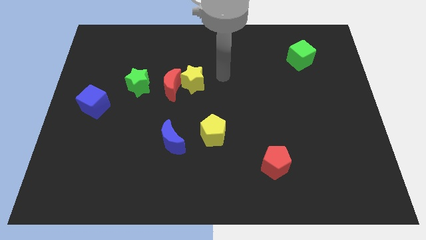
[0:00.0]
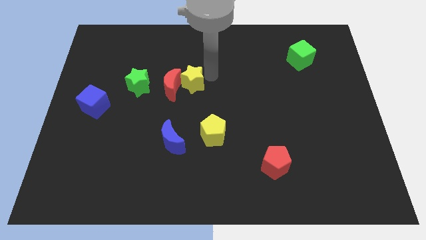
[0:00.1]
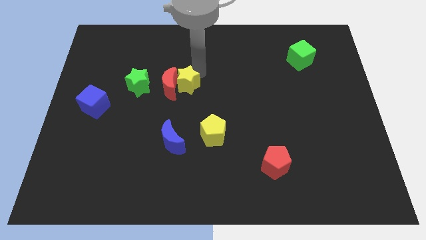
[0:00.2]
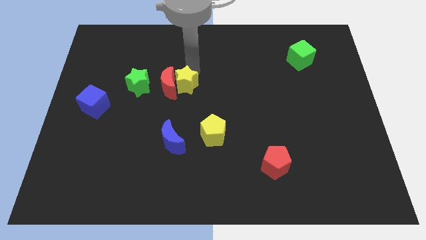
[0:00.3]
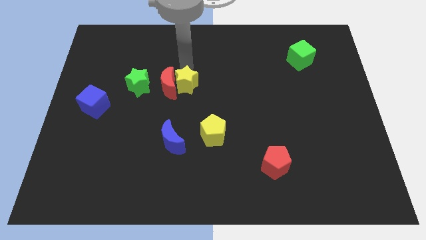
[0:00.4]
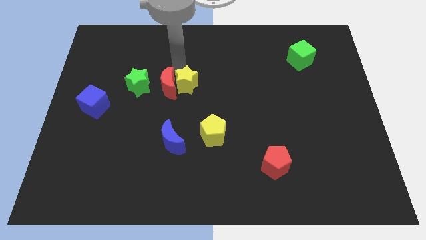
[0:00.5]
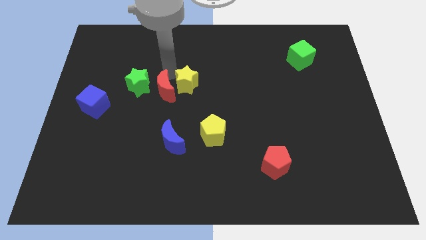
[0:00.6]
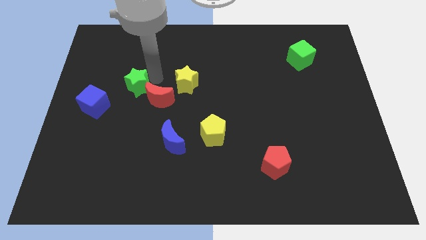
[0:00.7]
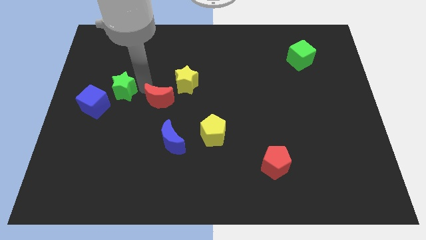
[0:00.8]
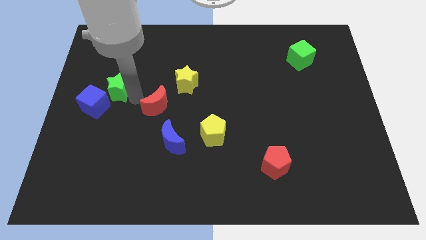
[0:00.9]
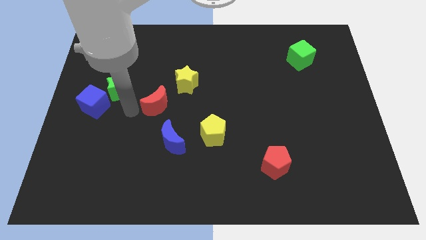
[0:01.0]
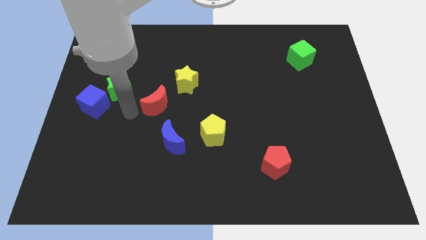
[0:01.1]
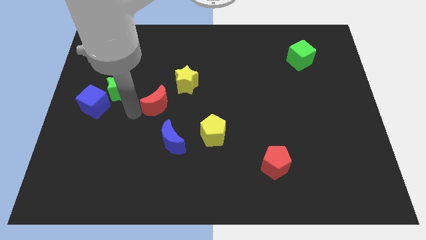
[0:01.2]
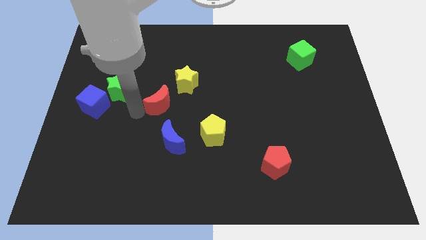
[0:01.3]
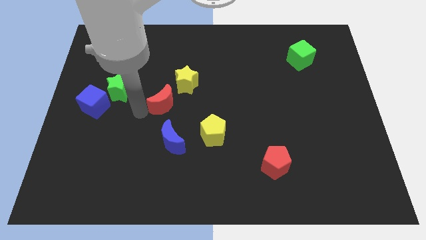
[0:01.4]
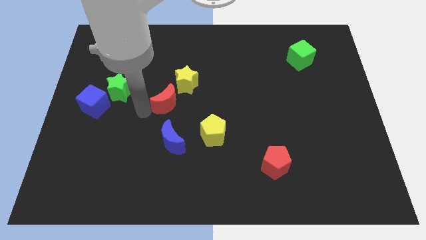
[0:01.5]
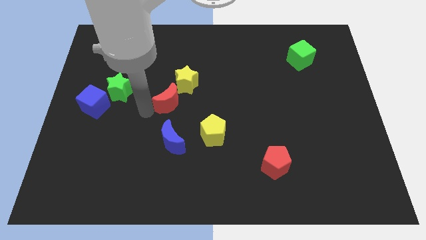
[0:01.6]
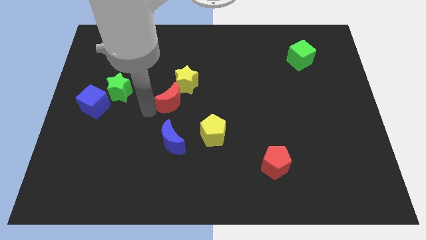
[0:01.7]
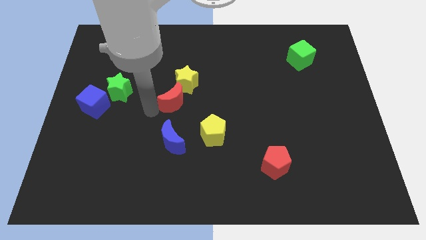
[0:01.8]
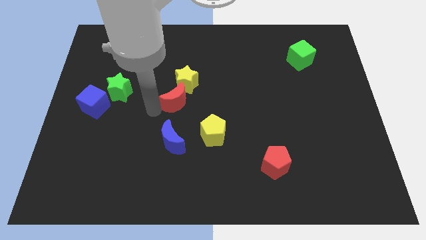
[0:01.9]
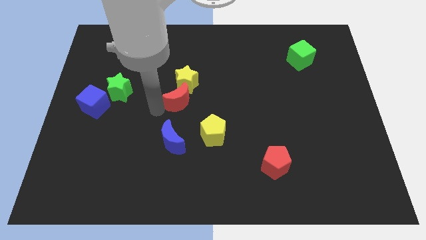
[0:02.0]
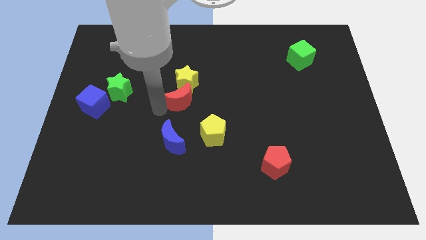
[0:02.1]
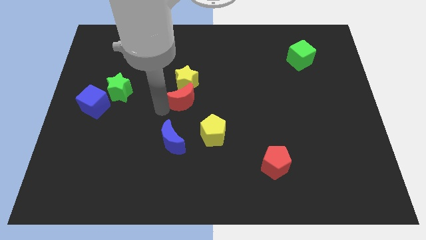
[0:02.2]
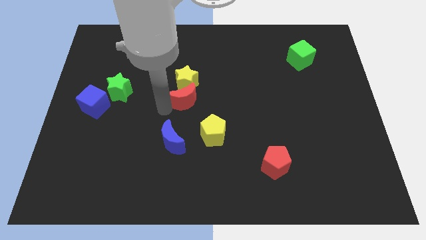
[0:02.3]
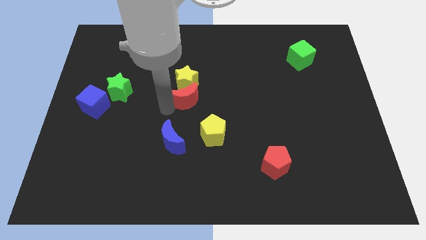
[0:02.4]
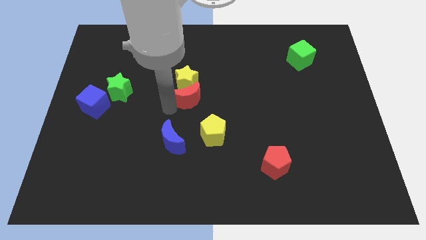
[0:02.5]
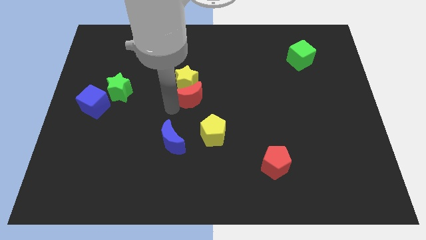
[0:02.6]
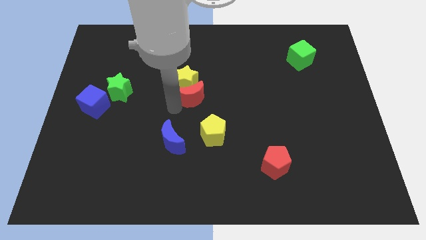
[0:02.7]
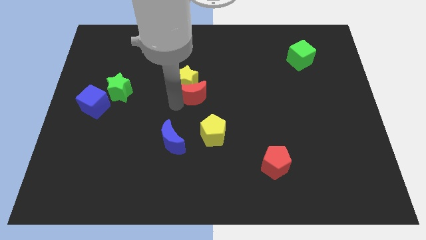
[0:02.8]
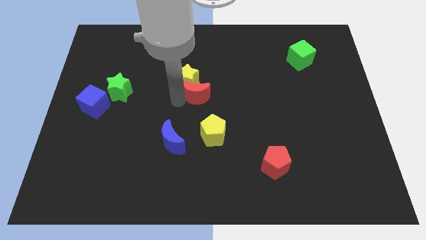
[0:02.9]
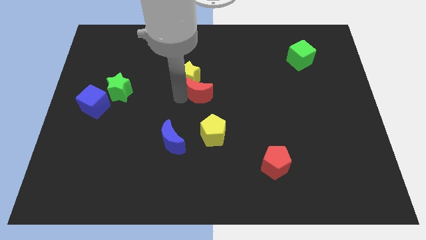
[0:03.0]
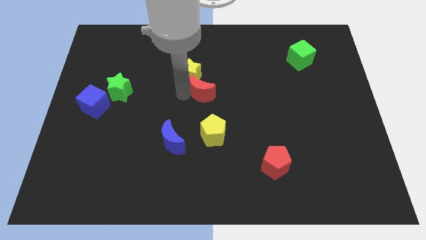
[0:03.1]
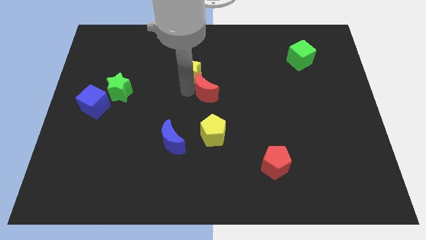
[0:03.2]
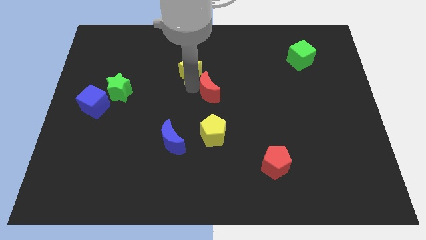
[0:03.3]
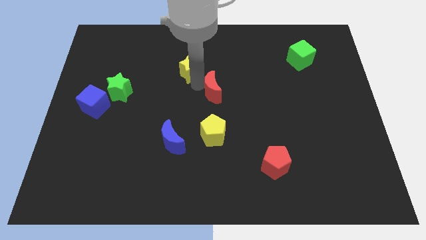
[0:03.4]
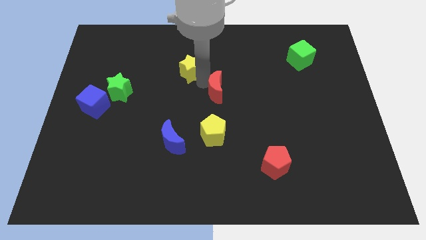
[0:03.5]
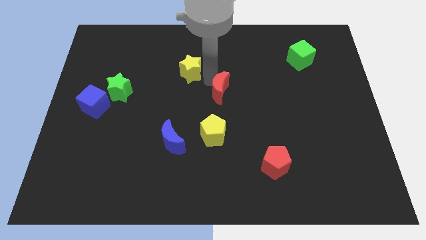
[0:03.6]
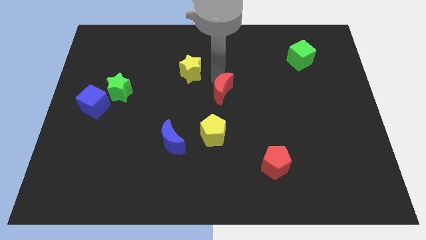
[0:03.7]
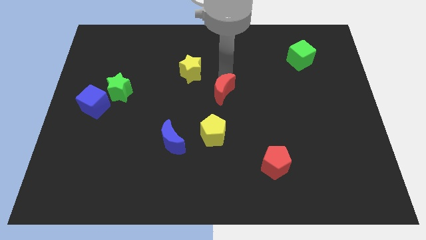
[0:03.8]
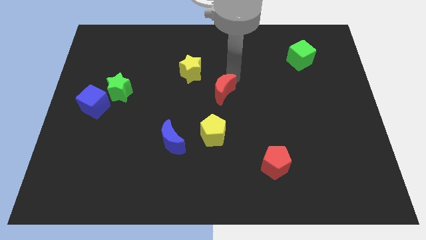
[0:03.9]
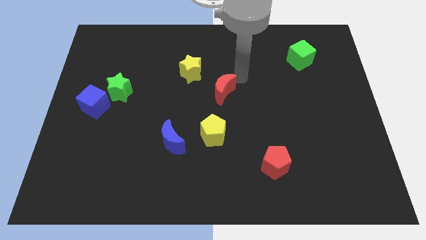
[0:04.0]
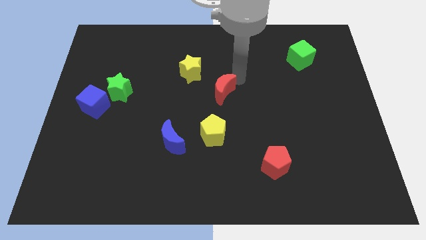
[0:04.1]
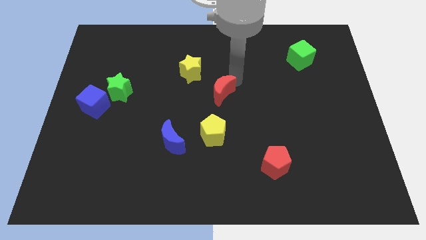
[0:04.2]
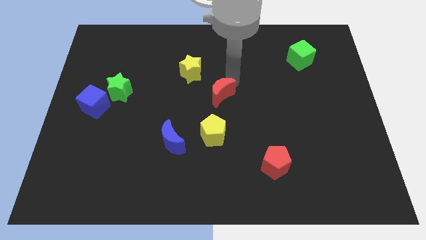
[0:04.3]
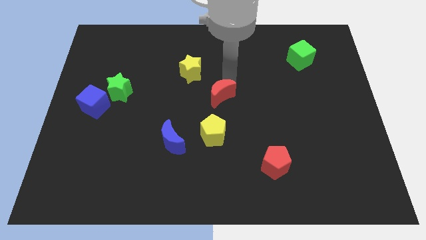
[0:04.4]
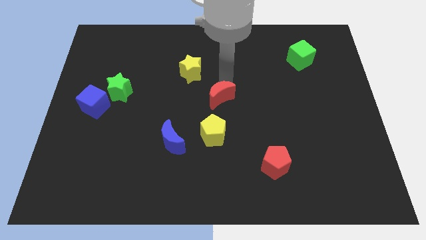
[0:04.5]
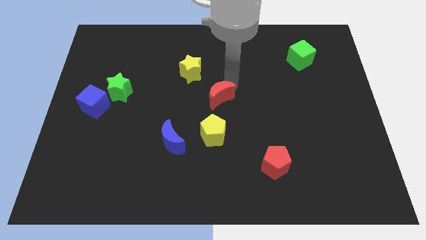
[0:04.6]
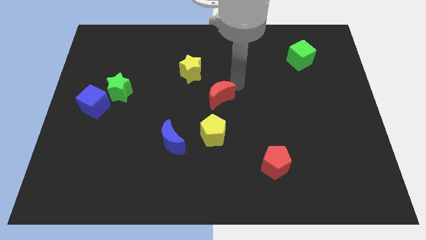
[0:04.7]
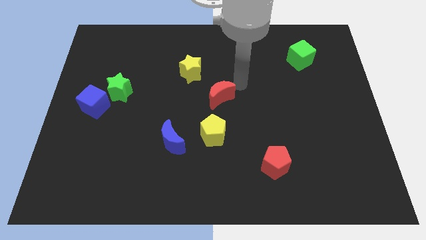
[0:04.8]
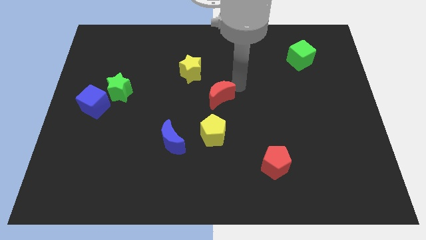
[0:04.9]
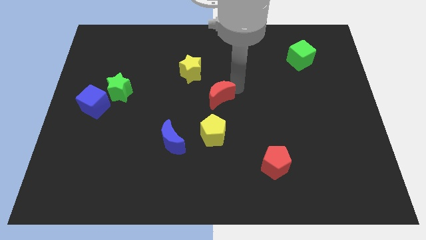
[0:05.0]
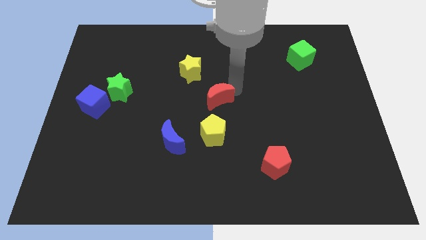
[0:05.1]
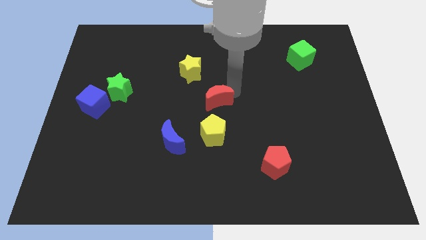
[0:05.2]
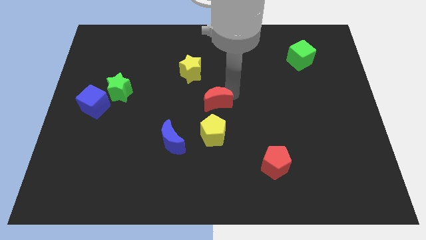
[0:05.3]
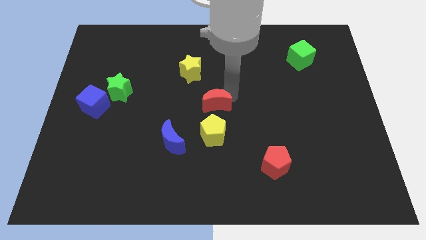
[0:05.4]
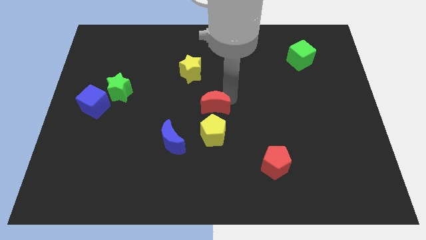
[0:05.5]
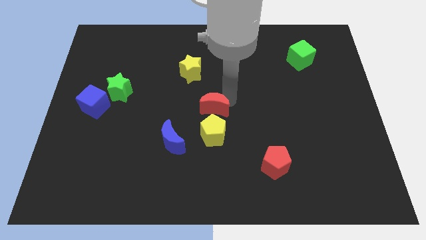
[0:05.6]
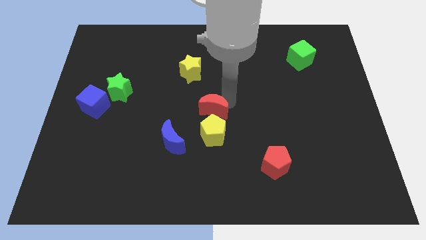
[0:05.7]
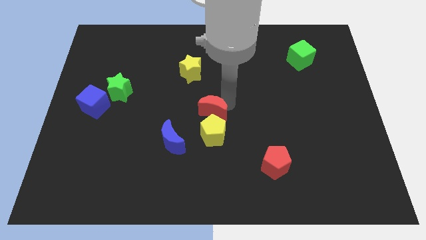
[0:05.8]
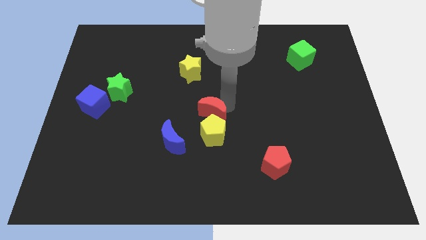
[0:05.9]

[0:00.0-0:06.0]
move the red moon towards the yellow pentagon
